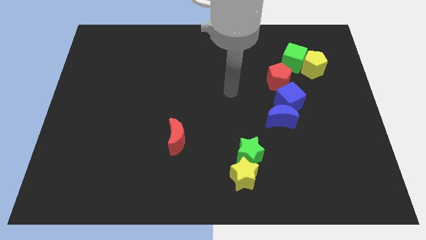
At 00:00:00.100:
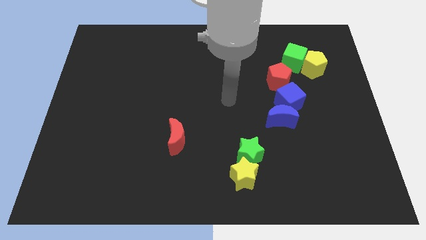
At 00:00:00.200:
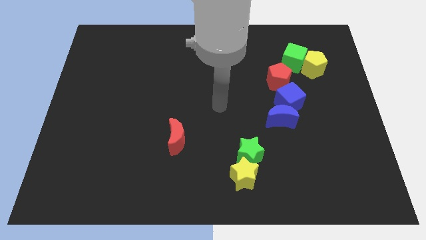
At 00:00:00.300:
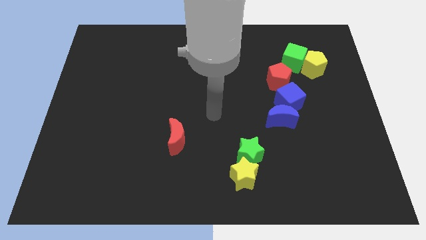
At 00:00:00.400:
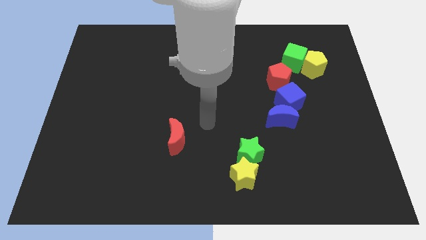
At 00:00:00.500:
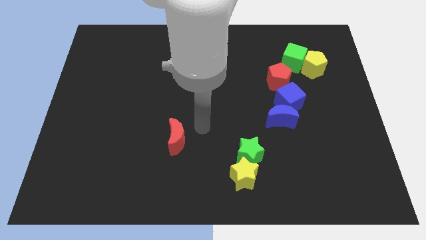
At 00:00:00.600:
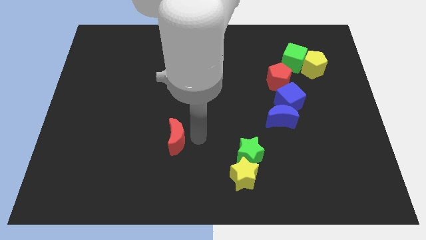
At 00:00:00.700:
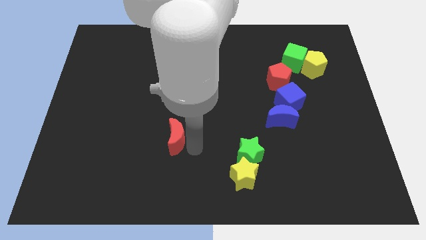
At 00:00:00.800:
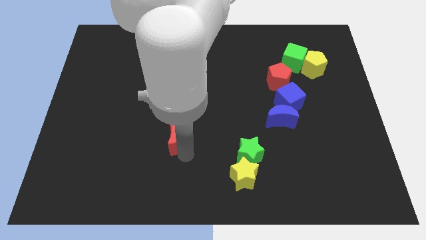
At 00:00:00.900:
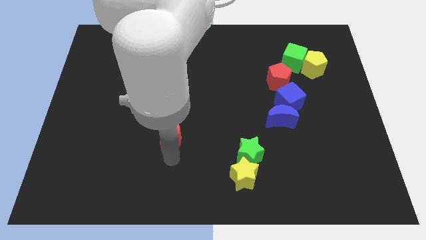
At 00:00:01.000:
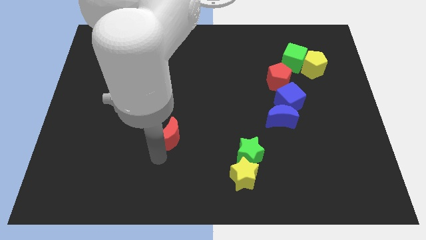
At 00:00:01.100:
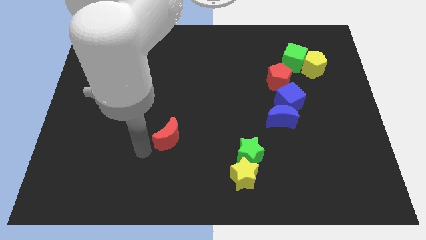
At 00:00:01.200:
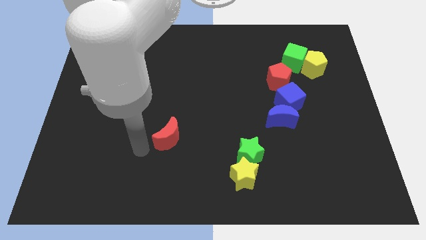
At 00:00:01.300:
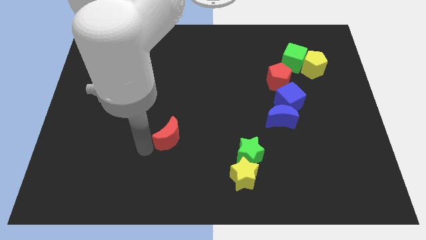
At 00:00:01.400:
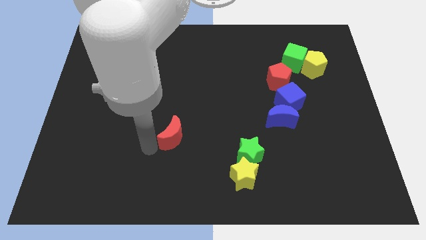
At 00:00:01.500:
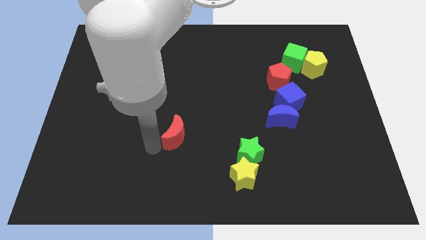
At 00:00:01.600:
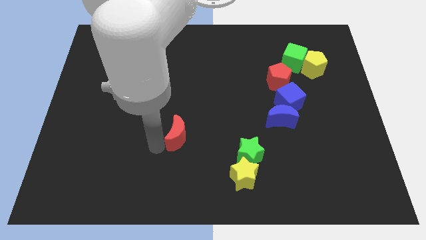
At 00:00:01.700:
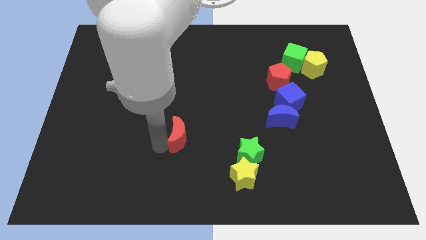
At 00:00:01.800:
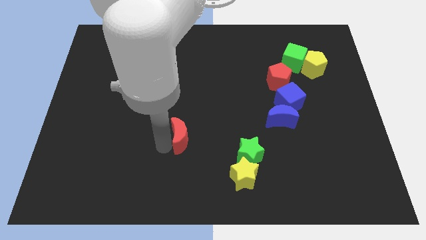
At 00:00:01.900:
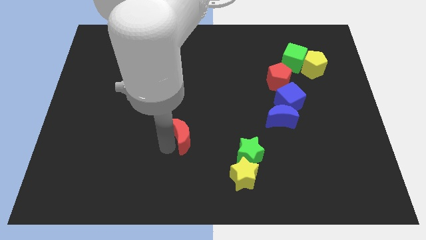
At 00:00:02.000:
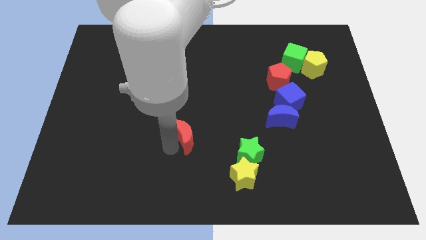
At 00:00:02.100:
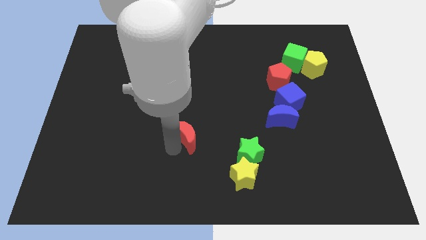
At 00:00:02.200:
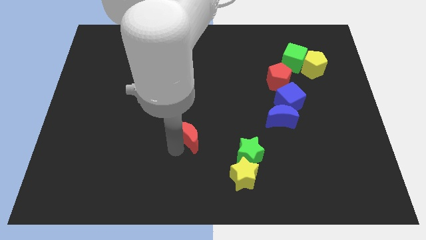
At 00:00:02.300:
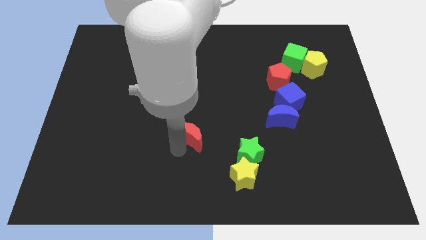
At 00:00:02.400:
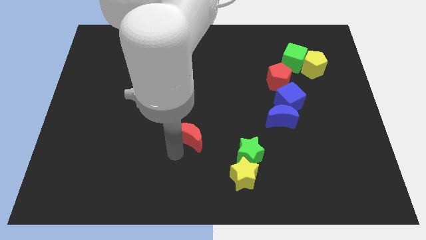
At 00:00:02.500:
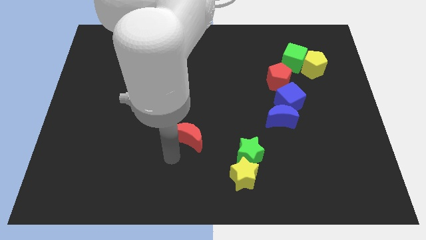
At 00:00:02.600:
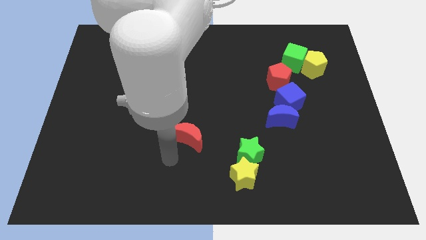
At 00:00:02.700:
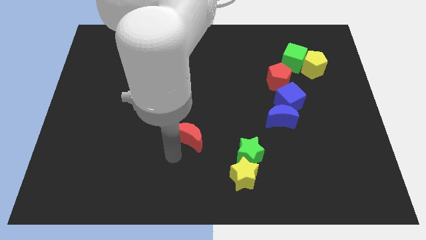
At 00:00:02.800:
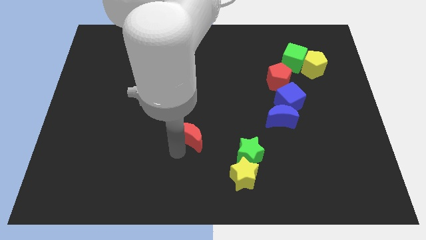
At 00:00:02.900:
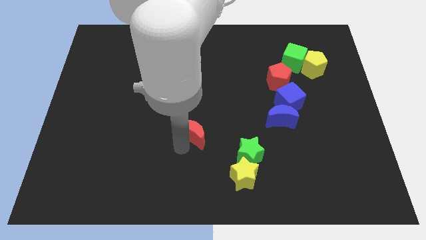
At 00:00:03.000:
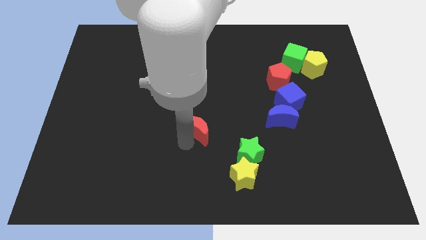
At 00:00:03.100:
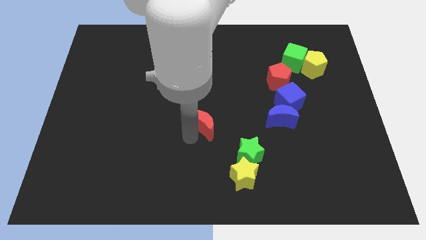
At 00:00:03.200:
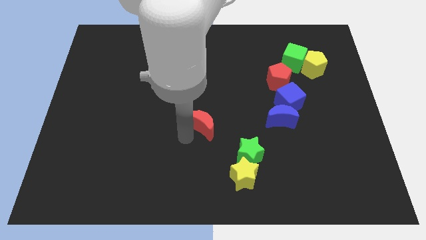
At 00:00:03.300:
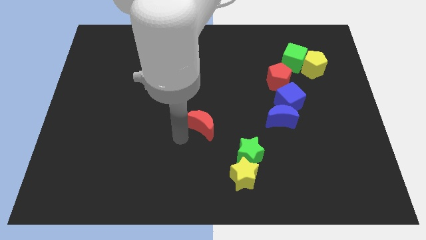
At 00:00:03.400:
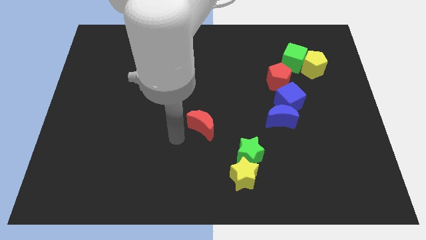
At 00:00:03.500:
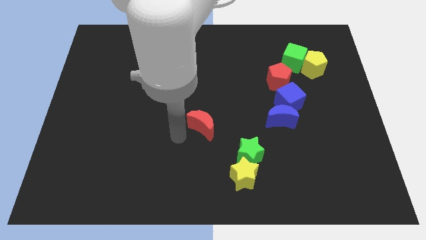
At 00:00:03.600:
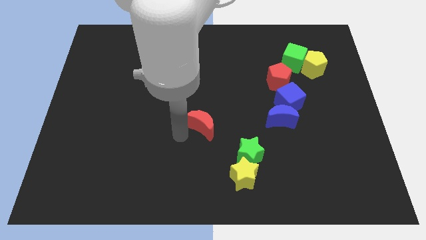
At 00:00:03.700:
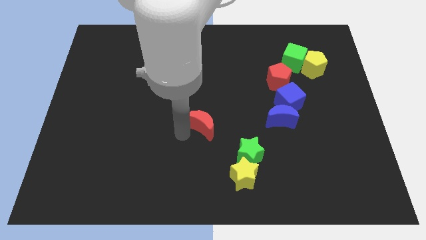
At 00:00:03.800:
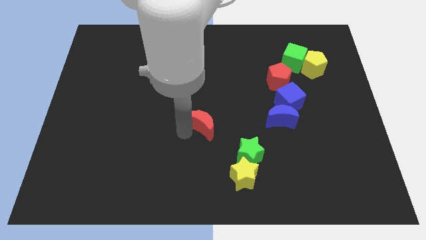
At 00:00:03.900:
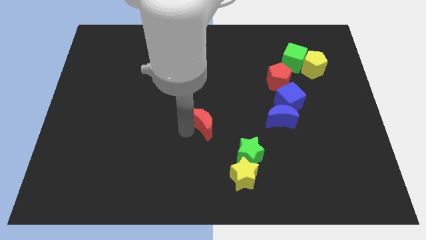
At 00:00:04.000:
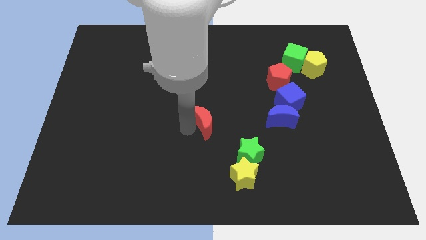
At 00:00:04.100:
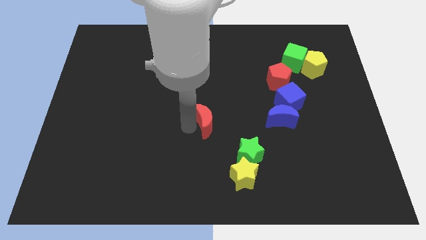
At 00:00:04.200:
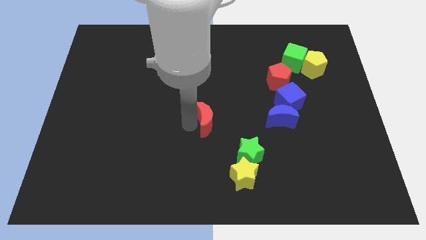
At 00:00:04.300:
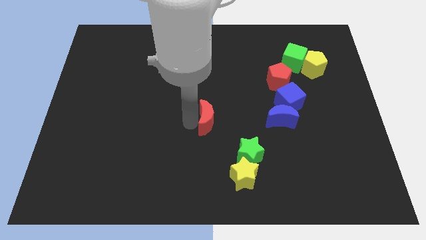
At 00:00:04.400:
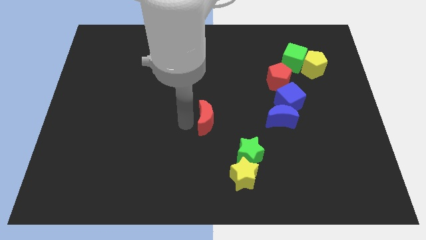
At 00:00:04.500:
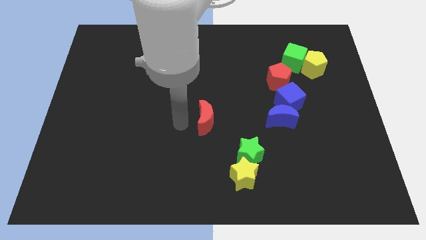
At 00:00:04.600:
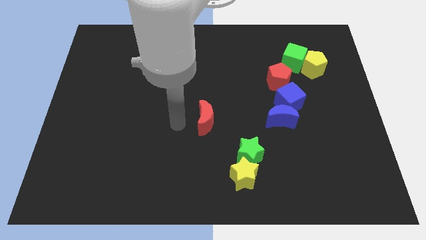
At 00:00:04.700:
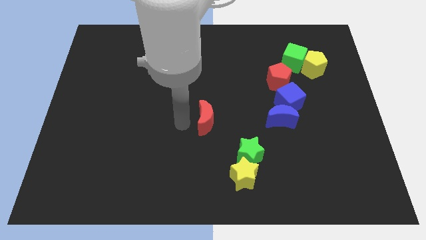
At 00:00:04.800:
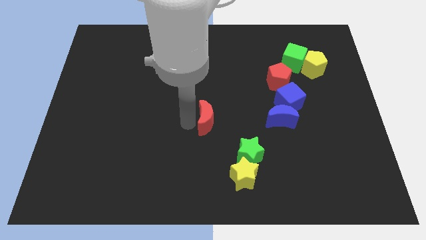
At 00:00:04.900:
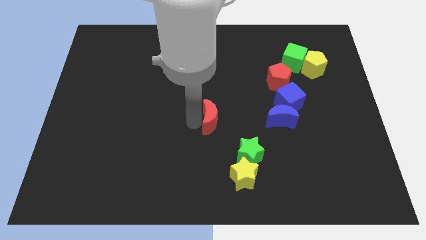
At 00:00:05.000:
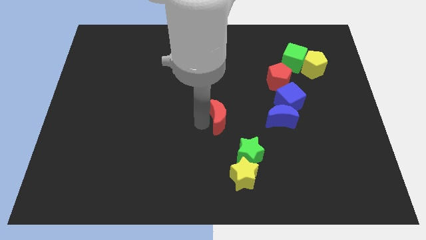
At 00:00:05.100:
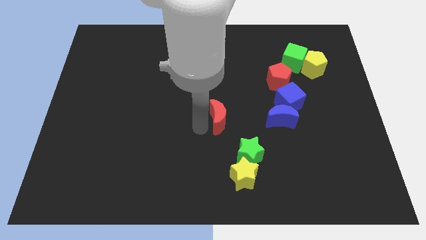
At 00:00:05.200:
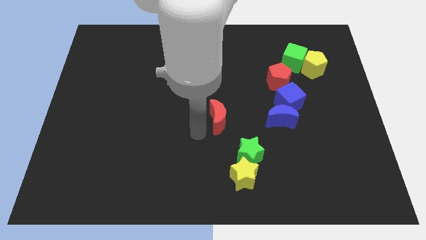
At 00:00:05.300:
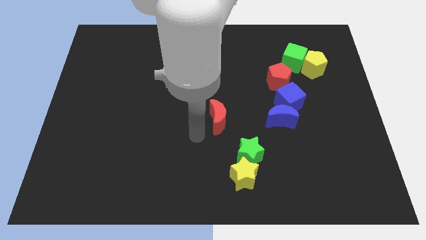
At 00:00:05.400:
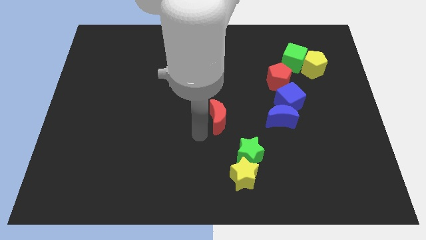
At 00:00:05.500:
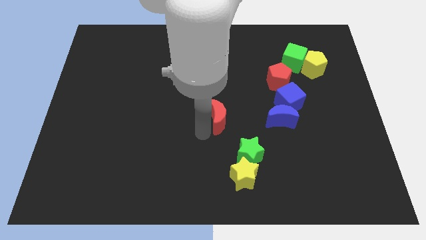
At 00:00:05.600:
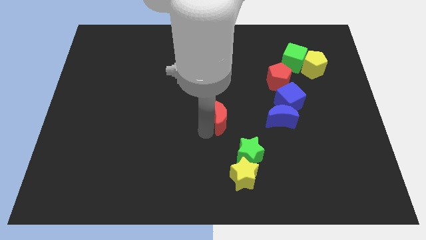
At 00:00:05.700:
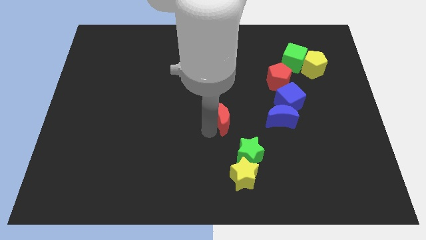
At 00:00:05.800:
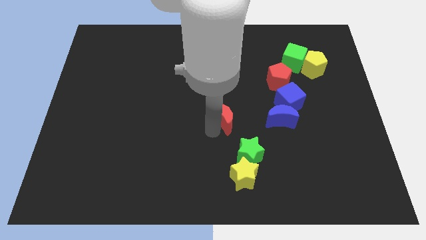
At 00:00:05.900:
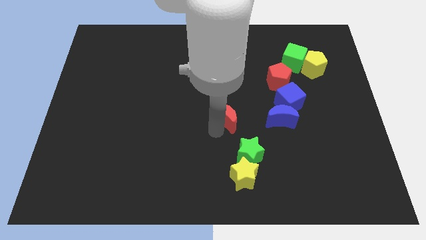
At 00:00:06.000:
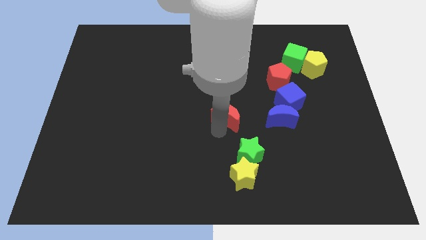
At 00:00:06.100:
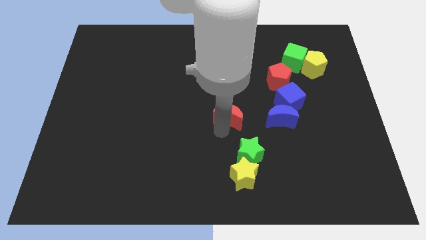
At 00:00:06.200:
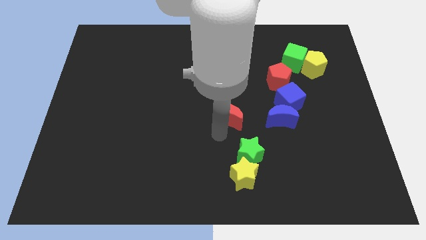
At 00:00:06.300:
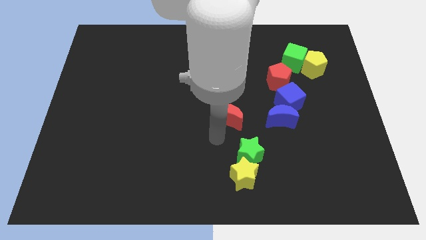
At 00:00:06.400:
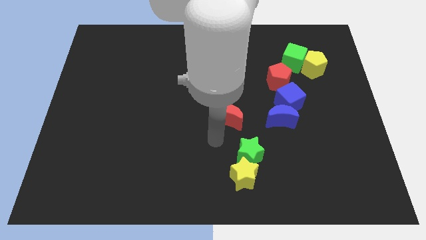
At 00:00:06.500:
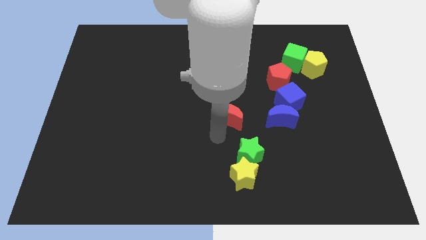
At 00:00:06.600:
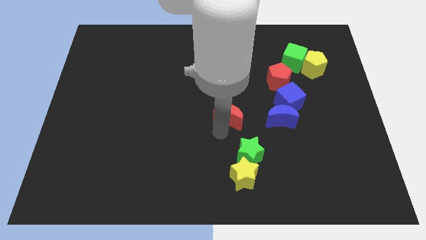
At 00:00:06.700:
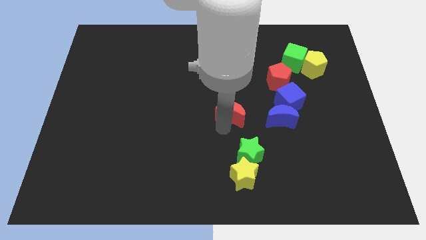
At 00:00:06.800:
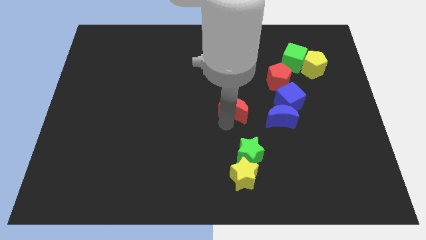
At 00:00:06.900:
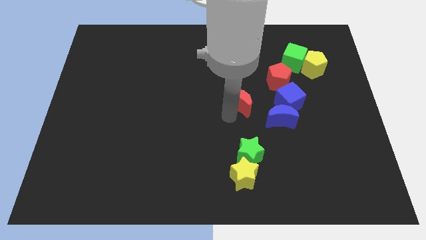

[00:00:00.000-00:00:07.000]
put the red moon to the bottom left of the red pentagon

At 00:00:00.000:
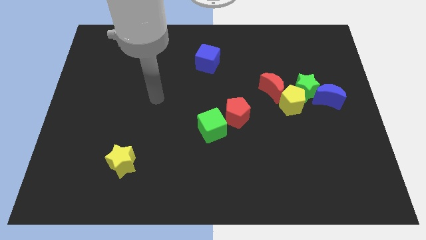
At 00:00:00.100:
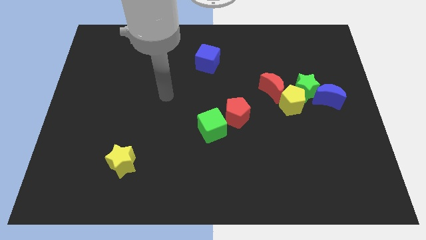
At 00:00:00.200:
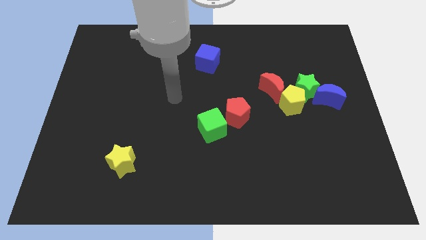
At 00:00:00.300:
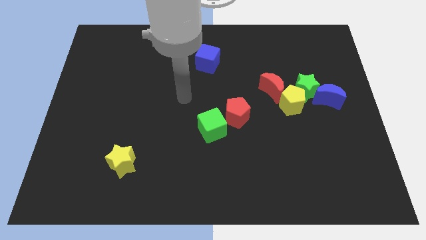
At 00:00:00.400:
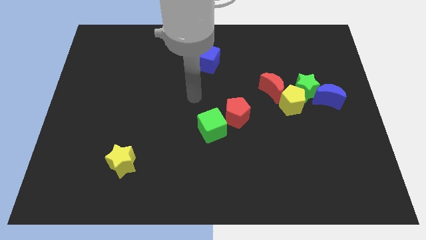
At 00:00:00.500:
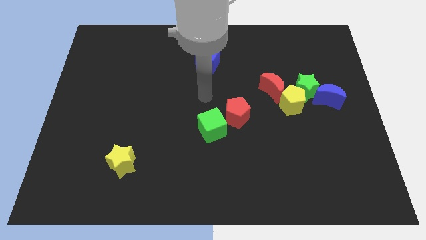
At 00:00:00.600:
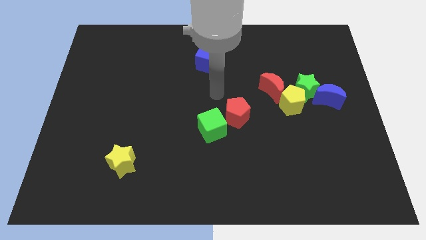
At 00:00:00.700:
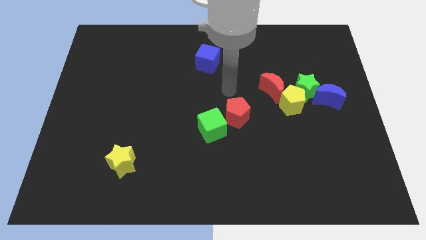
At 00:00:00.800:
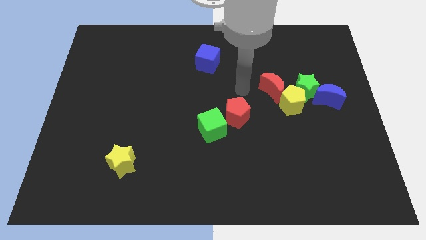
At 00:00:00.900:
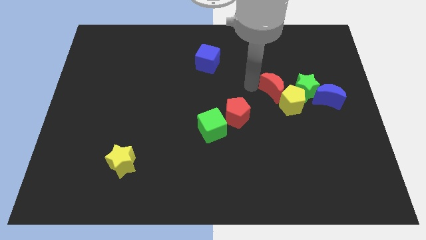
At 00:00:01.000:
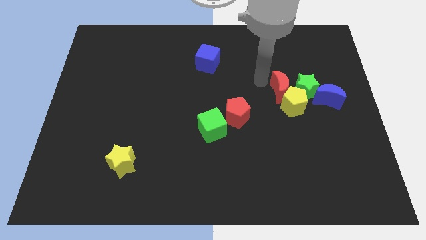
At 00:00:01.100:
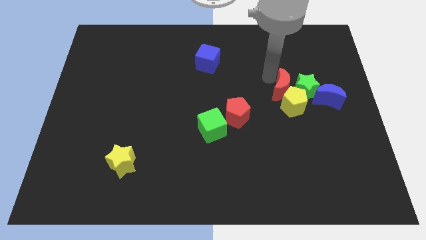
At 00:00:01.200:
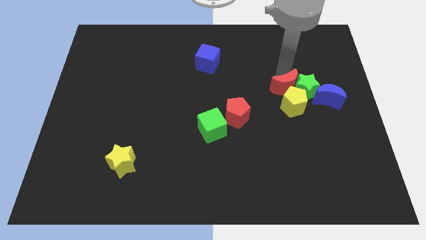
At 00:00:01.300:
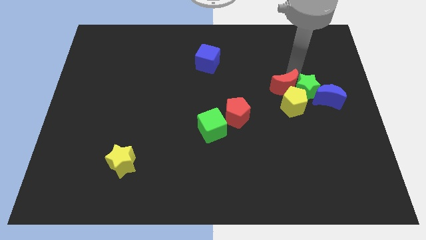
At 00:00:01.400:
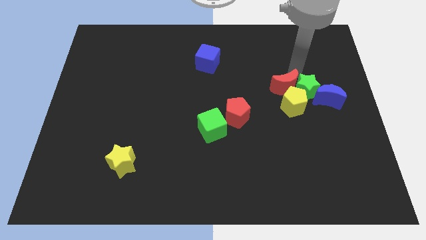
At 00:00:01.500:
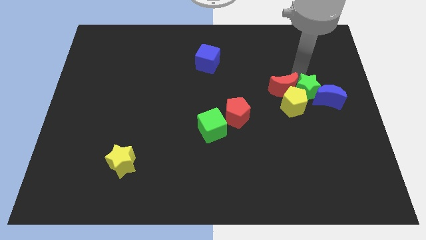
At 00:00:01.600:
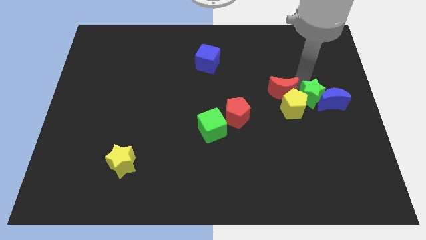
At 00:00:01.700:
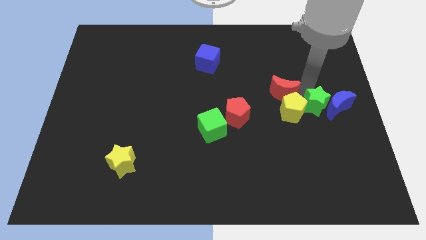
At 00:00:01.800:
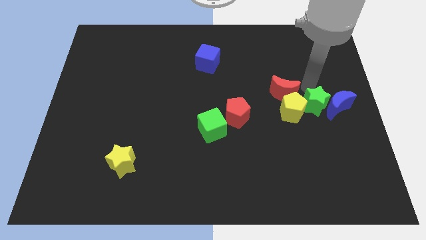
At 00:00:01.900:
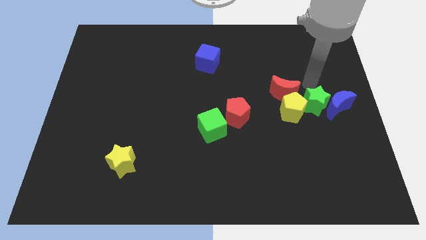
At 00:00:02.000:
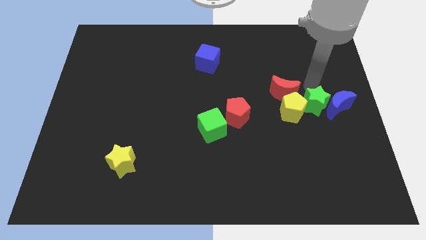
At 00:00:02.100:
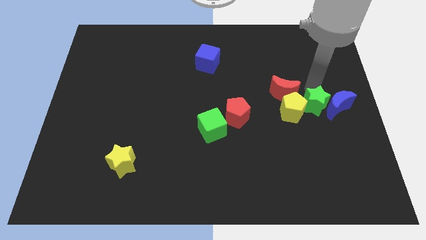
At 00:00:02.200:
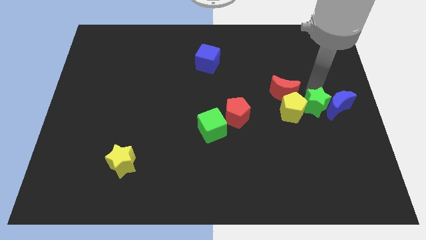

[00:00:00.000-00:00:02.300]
put the green star diagonally down and to the right of the yellow pentagon
